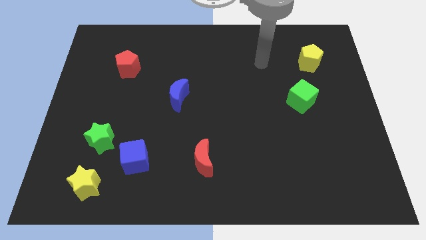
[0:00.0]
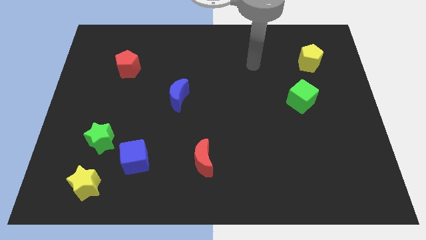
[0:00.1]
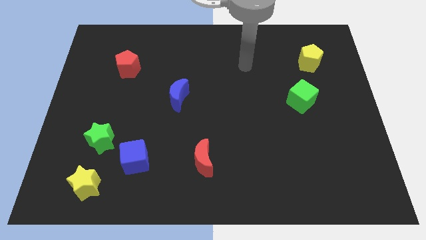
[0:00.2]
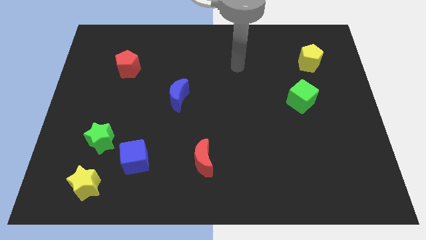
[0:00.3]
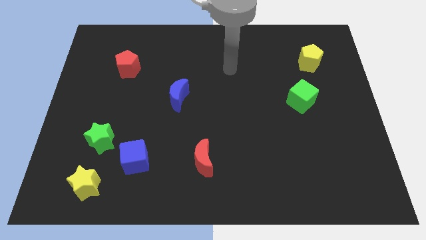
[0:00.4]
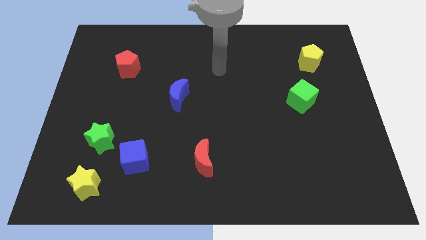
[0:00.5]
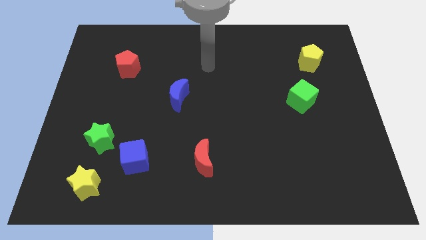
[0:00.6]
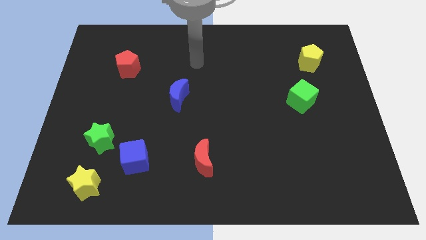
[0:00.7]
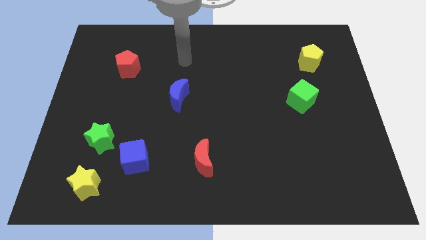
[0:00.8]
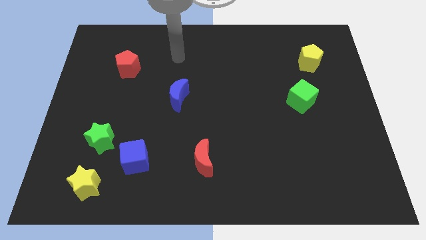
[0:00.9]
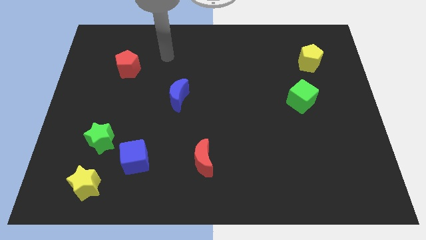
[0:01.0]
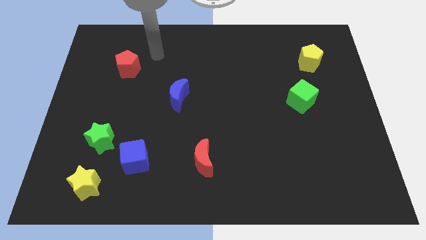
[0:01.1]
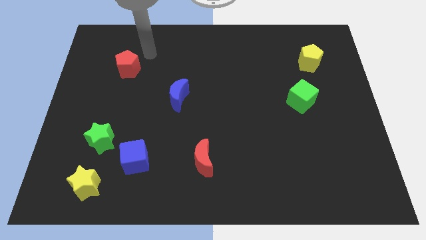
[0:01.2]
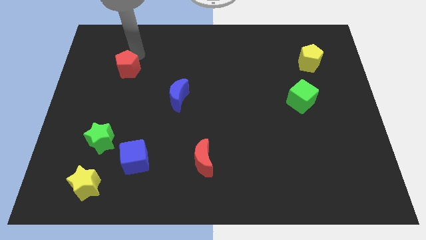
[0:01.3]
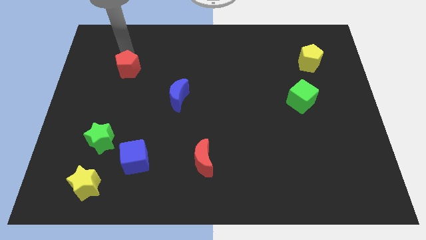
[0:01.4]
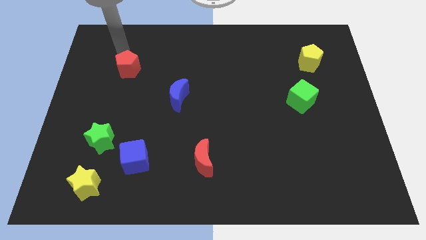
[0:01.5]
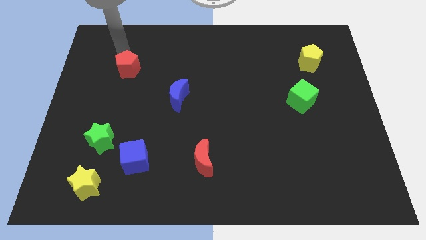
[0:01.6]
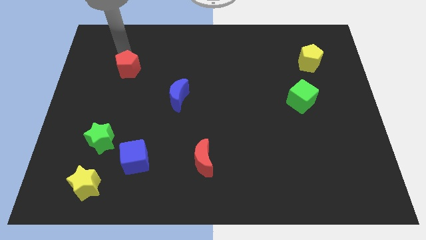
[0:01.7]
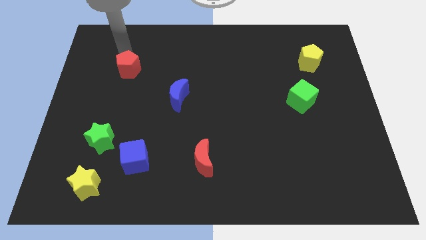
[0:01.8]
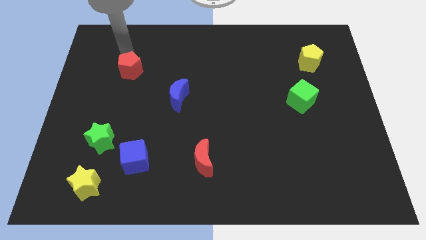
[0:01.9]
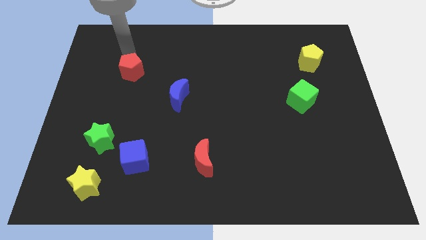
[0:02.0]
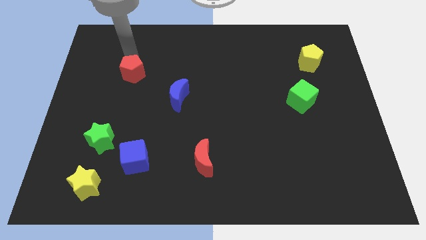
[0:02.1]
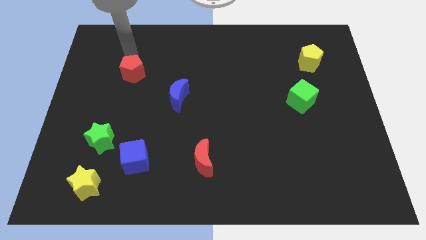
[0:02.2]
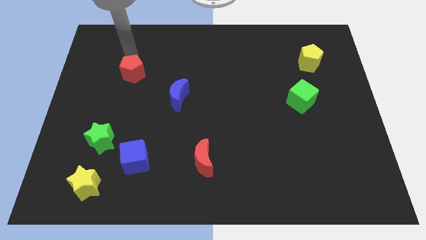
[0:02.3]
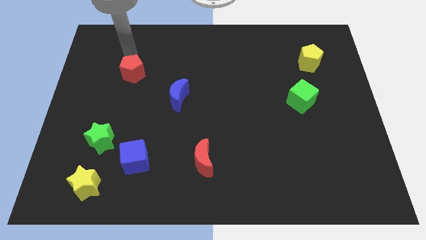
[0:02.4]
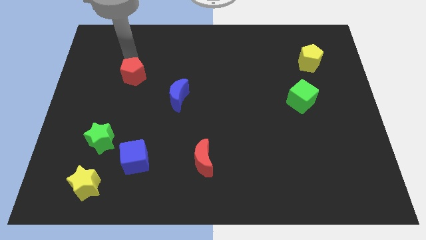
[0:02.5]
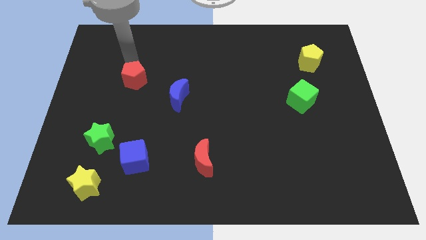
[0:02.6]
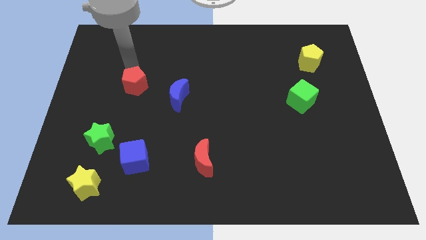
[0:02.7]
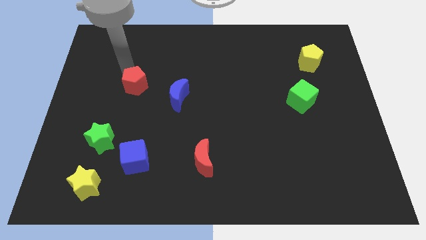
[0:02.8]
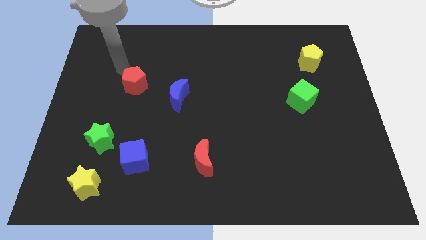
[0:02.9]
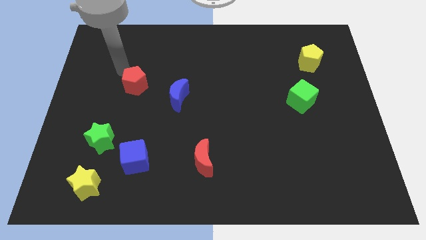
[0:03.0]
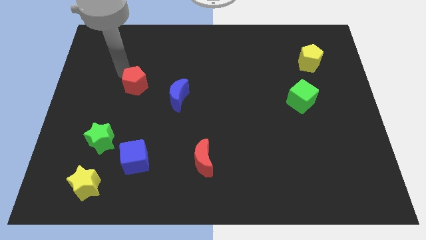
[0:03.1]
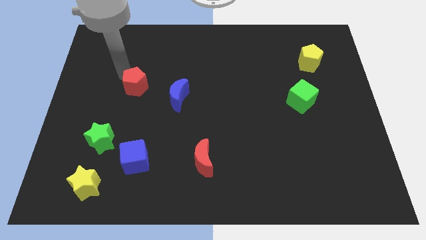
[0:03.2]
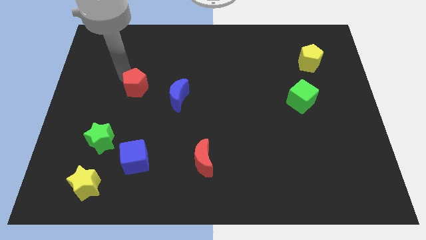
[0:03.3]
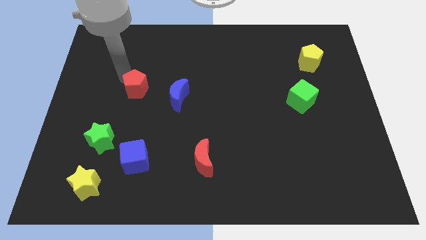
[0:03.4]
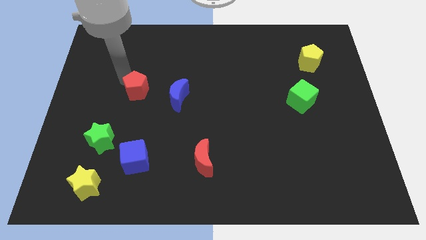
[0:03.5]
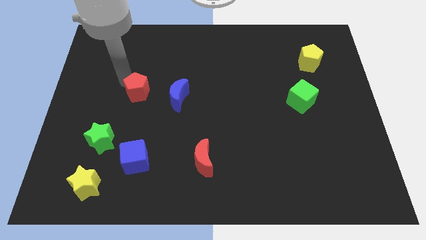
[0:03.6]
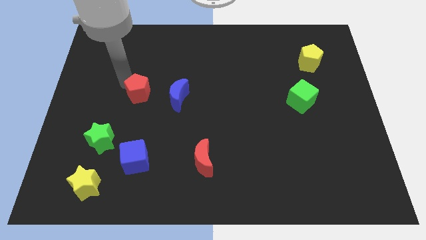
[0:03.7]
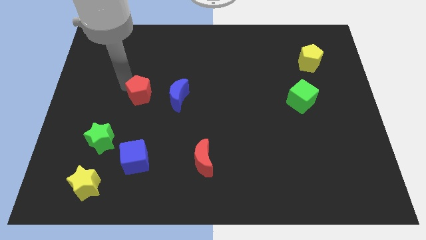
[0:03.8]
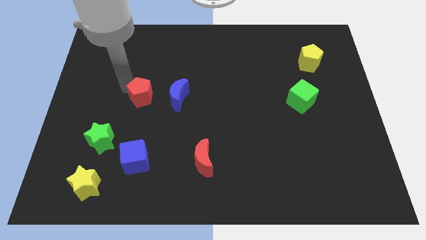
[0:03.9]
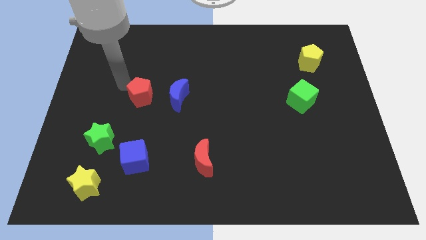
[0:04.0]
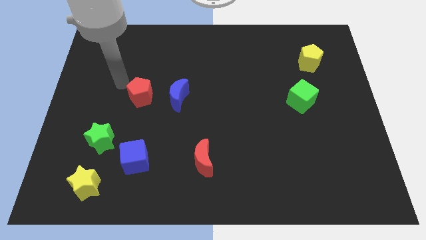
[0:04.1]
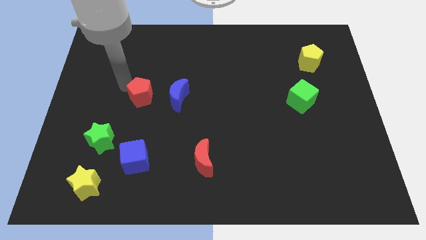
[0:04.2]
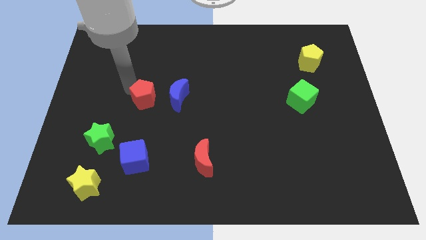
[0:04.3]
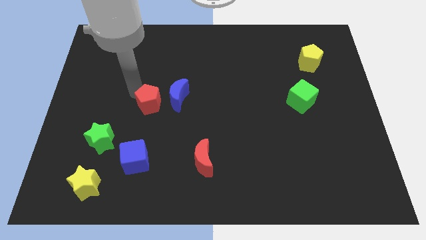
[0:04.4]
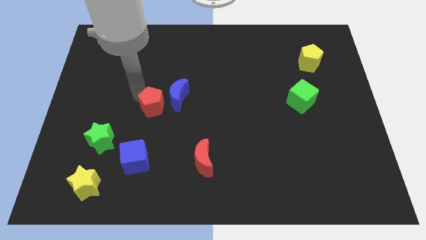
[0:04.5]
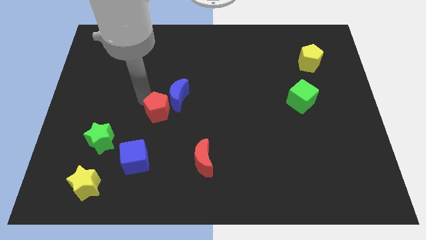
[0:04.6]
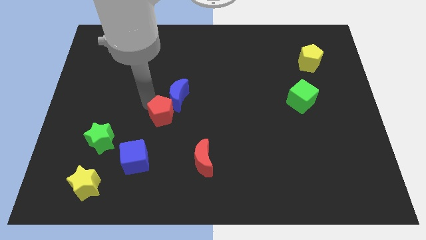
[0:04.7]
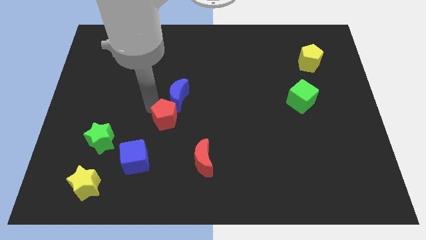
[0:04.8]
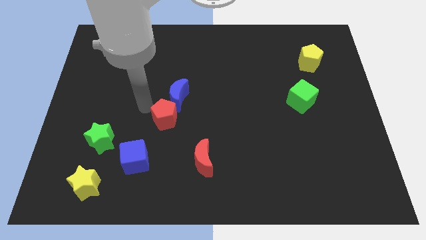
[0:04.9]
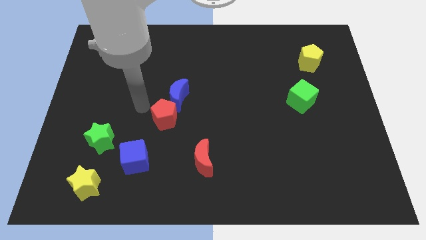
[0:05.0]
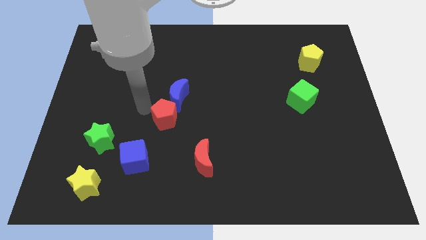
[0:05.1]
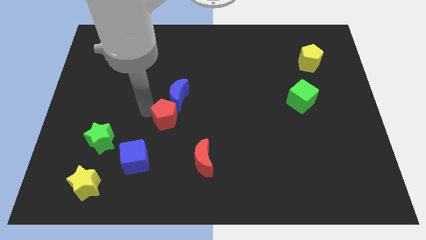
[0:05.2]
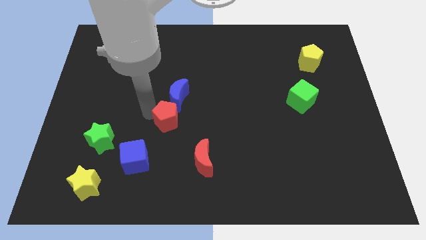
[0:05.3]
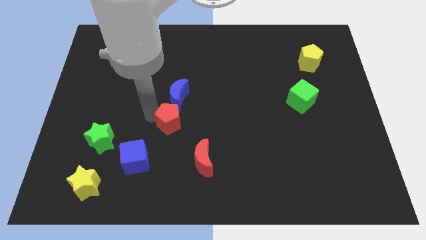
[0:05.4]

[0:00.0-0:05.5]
push the red pentagon down and then to the right

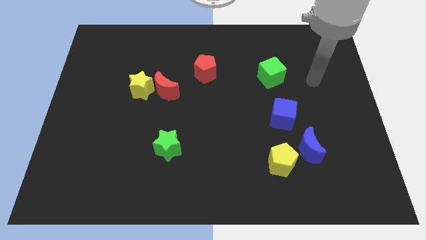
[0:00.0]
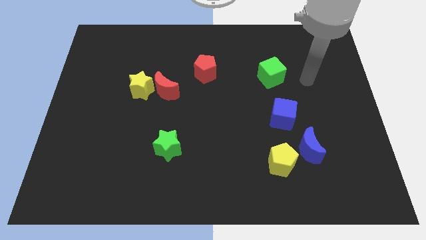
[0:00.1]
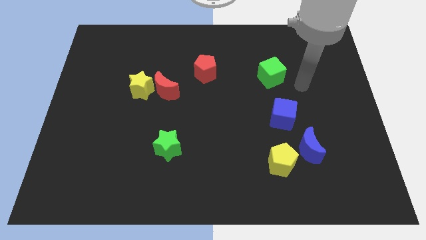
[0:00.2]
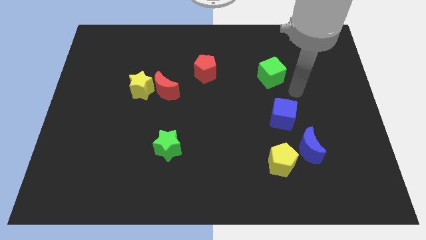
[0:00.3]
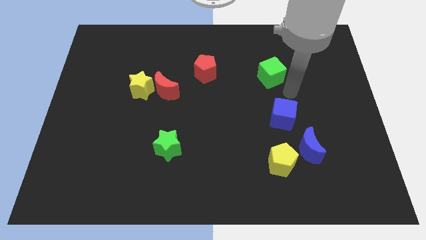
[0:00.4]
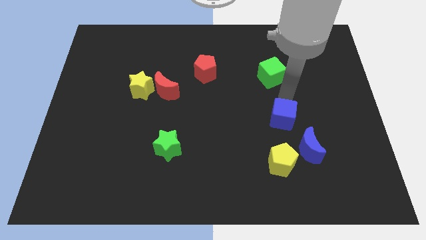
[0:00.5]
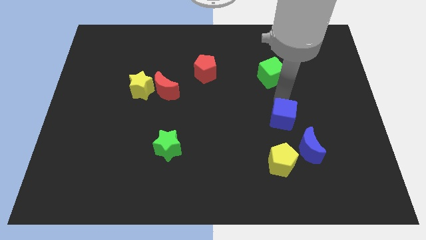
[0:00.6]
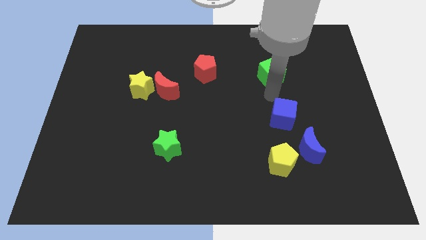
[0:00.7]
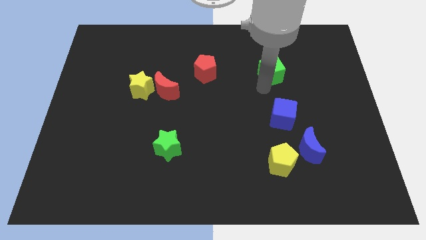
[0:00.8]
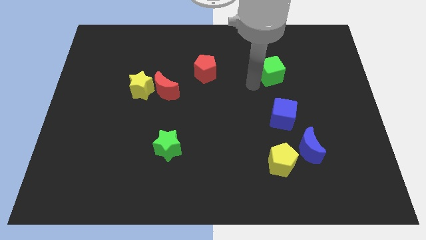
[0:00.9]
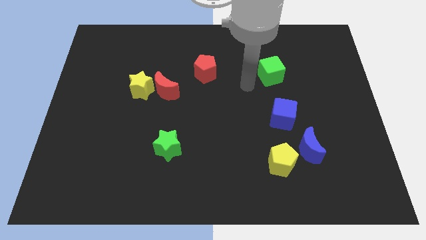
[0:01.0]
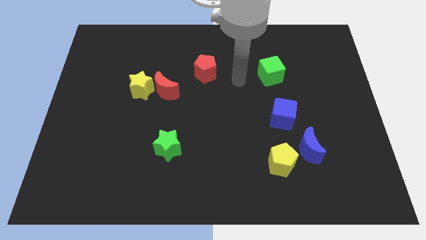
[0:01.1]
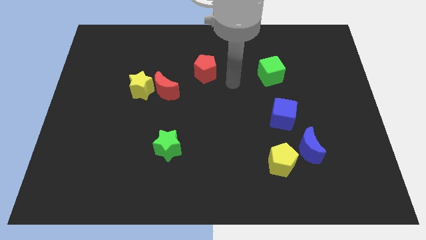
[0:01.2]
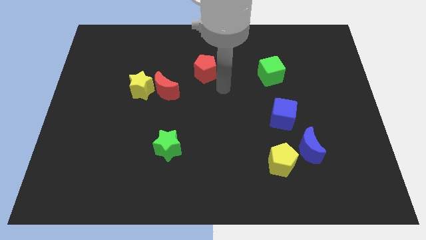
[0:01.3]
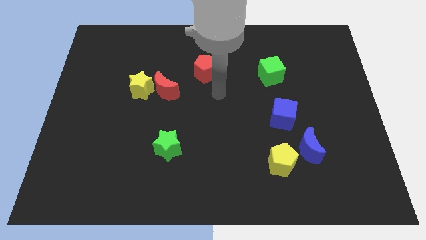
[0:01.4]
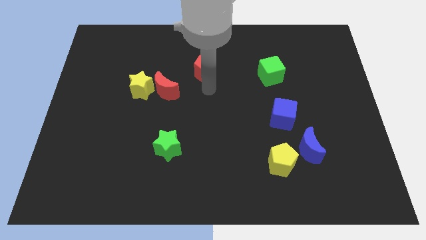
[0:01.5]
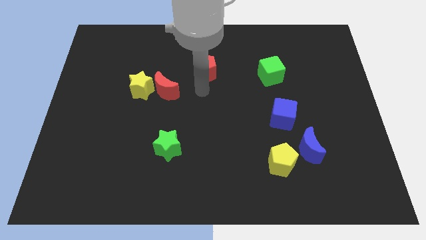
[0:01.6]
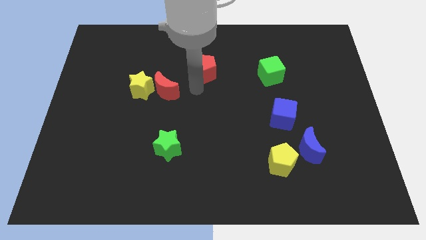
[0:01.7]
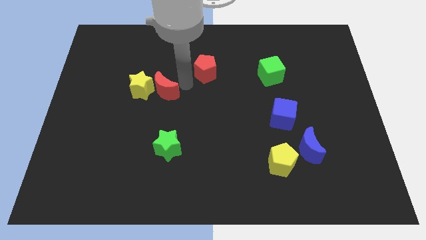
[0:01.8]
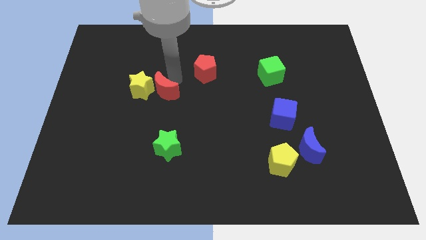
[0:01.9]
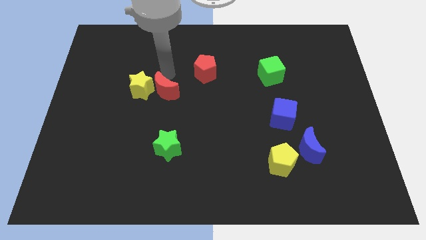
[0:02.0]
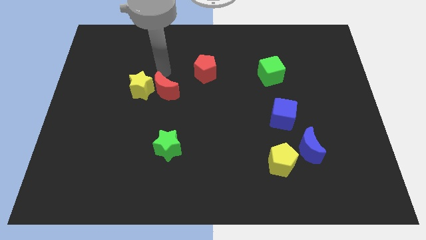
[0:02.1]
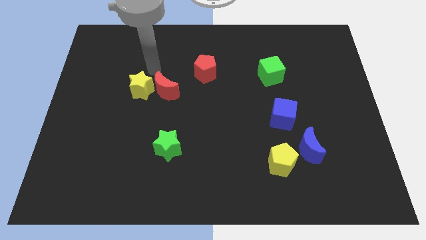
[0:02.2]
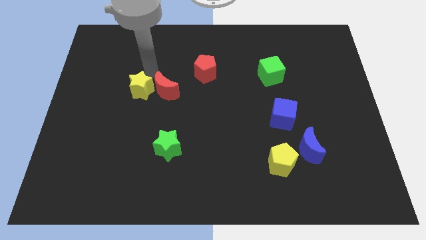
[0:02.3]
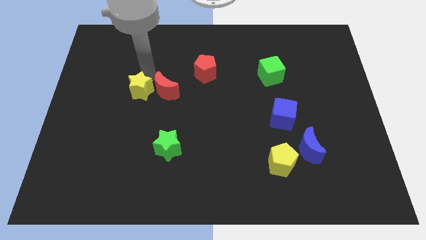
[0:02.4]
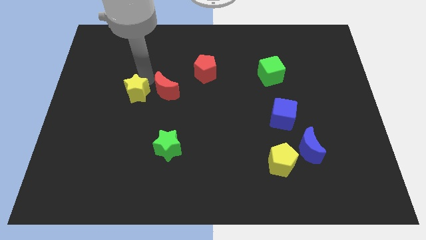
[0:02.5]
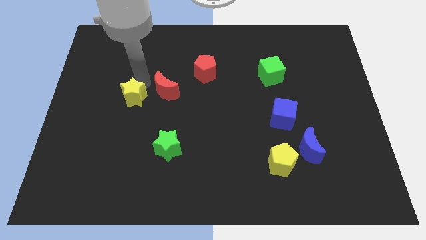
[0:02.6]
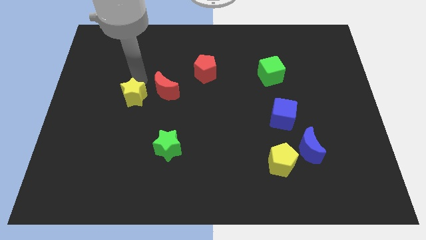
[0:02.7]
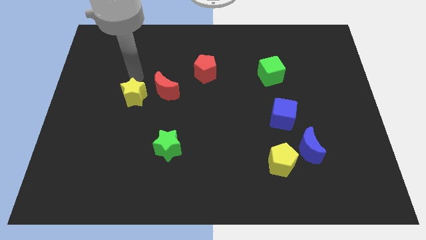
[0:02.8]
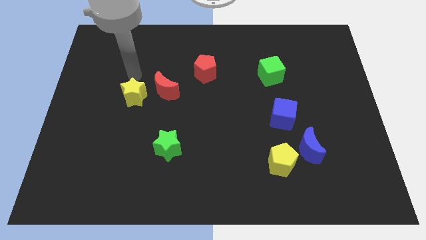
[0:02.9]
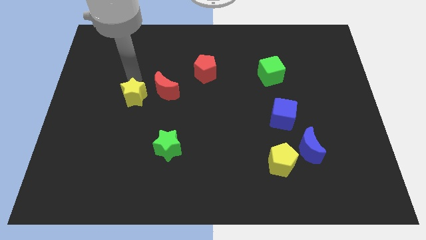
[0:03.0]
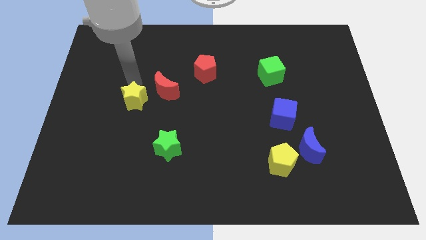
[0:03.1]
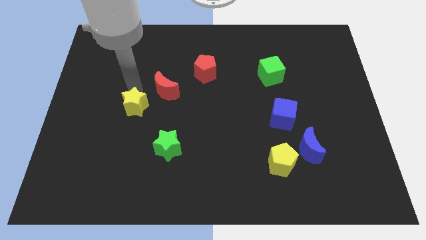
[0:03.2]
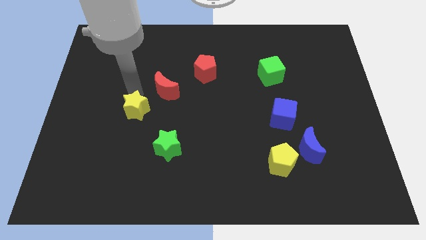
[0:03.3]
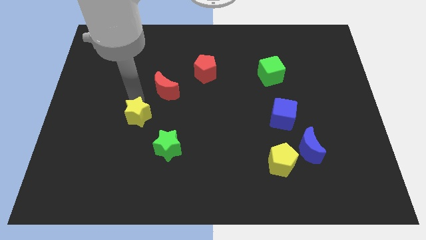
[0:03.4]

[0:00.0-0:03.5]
push the yellow star down somewhat
